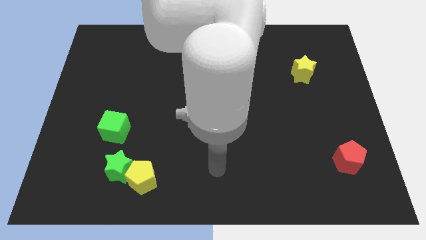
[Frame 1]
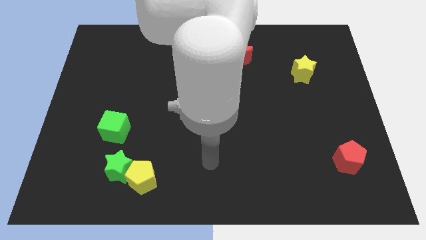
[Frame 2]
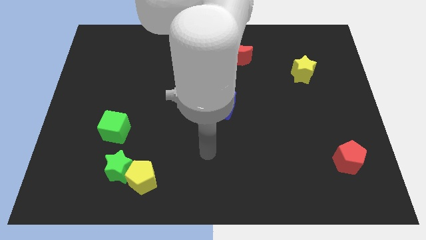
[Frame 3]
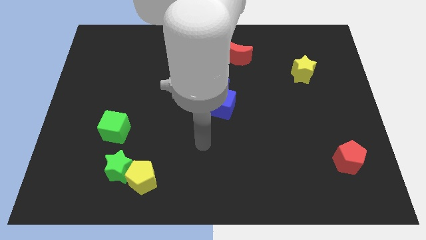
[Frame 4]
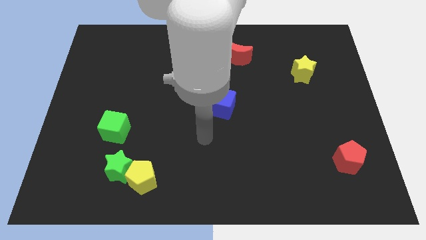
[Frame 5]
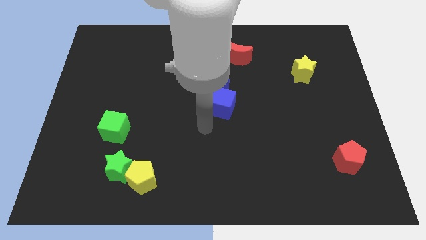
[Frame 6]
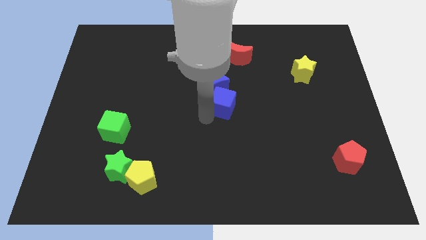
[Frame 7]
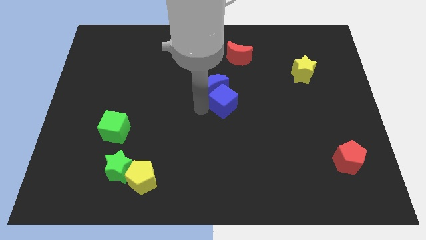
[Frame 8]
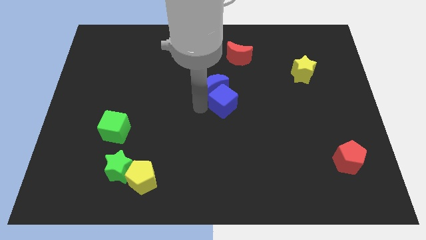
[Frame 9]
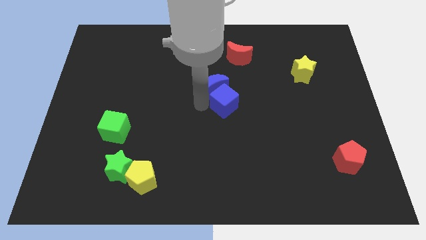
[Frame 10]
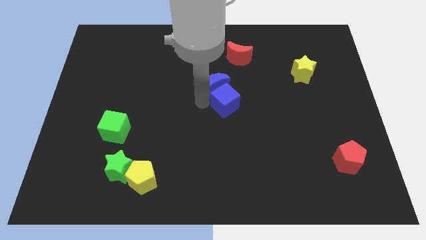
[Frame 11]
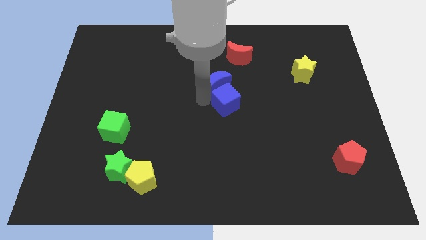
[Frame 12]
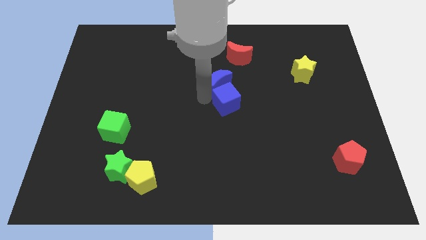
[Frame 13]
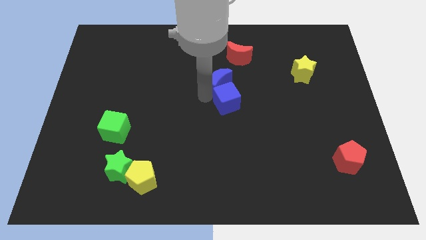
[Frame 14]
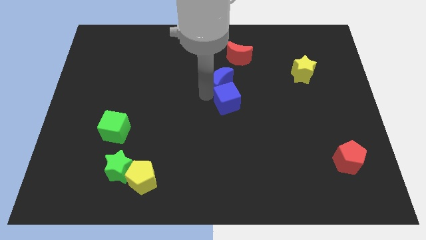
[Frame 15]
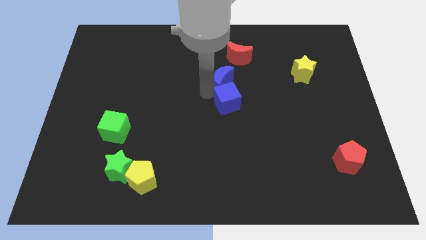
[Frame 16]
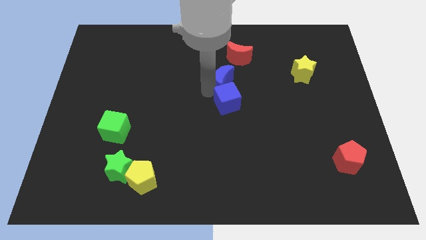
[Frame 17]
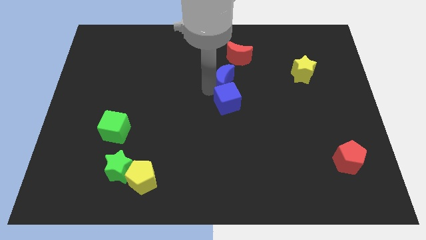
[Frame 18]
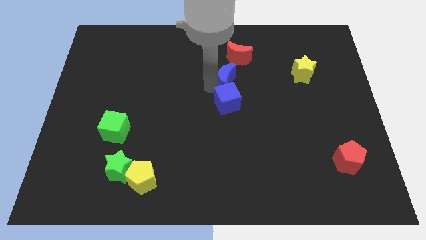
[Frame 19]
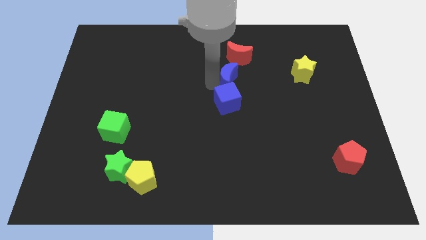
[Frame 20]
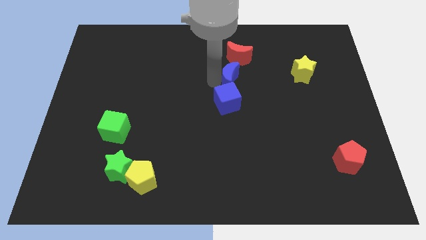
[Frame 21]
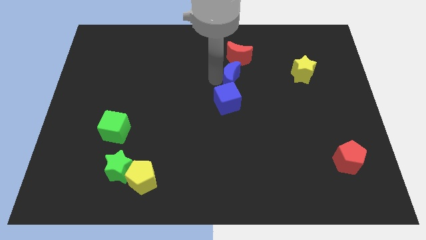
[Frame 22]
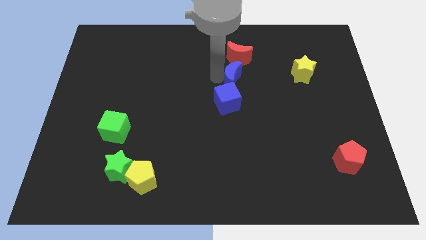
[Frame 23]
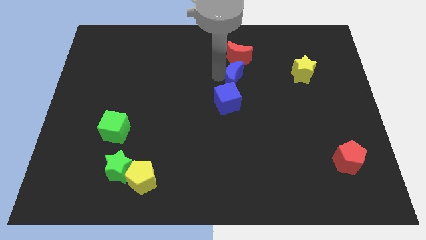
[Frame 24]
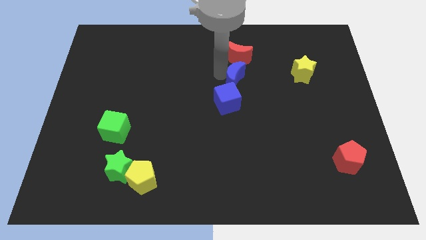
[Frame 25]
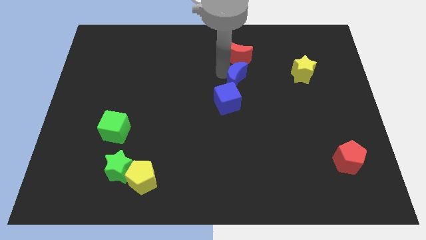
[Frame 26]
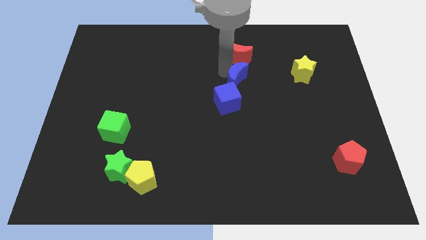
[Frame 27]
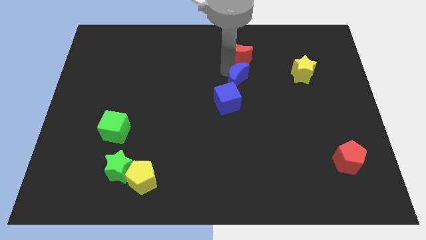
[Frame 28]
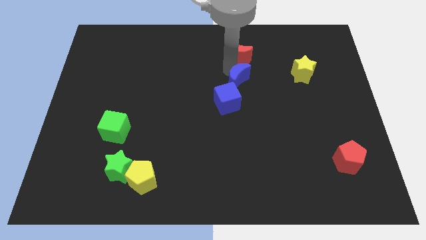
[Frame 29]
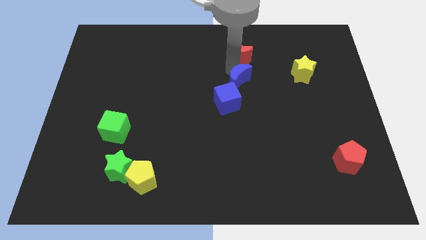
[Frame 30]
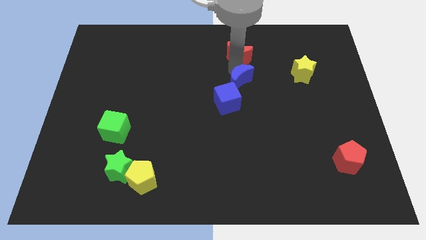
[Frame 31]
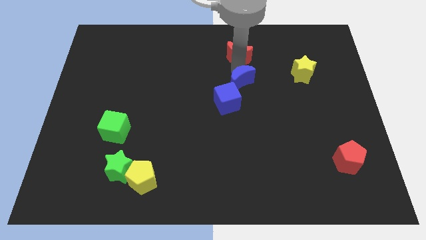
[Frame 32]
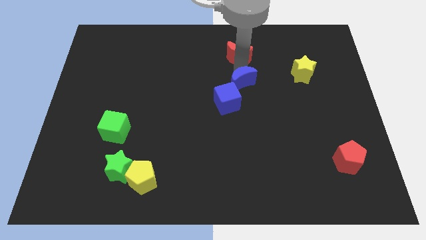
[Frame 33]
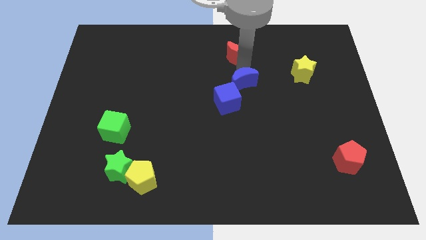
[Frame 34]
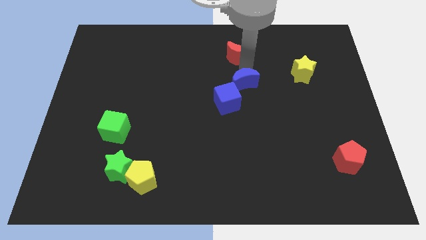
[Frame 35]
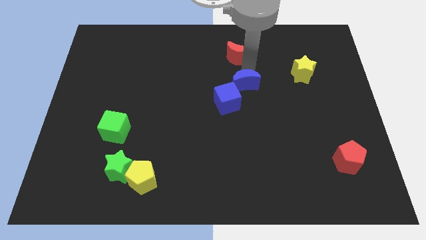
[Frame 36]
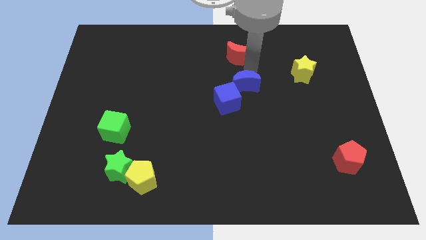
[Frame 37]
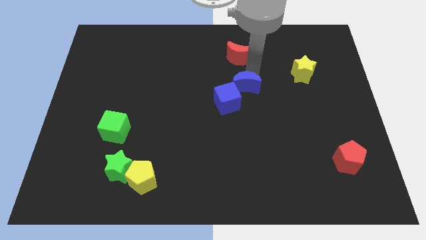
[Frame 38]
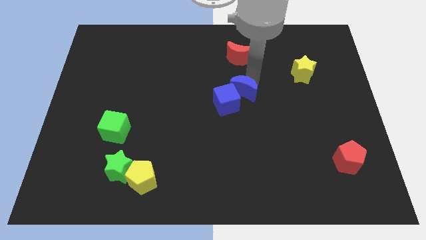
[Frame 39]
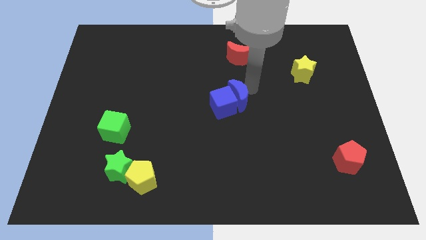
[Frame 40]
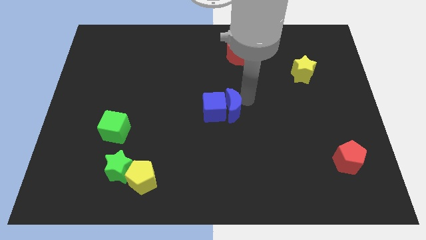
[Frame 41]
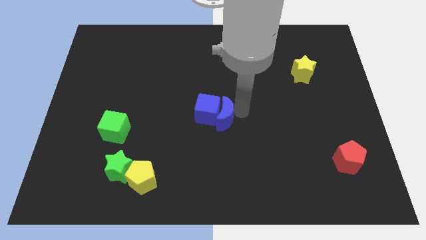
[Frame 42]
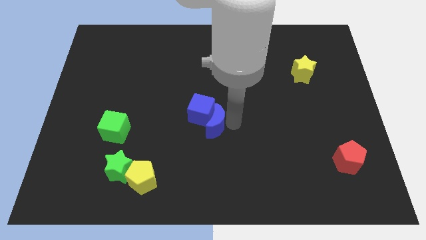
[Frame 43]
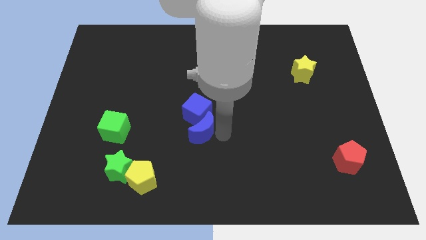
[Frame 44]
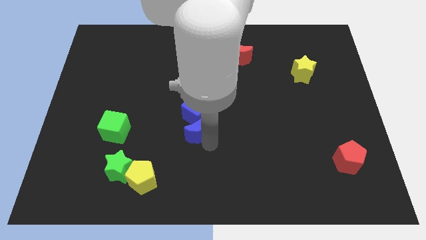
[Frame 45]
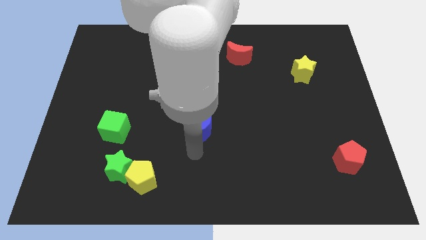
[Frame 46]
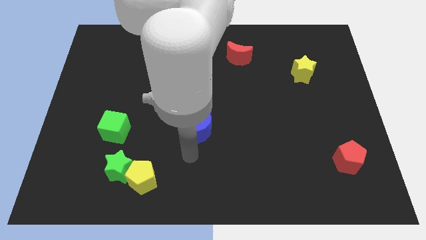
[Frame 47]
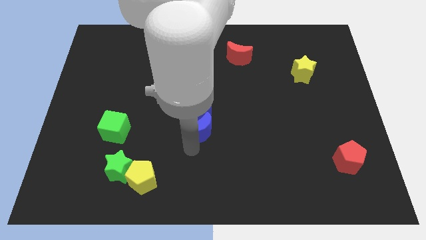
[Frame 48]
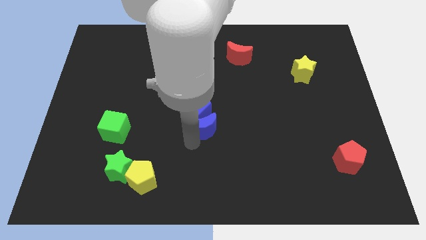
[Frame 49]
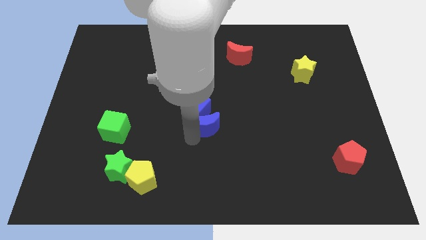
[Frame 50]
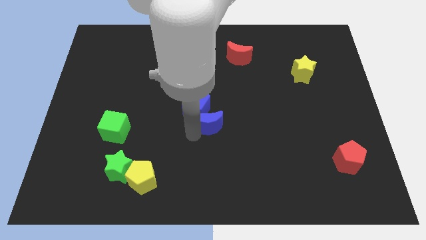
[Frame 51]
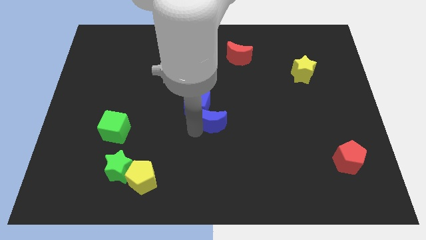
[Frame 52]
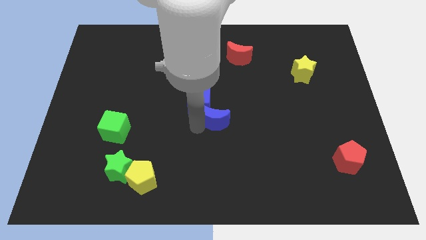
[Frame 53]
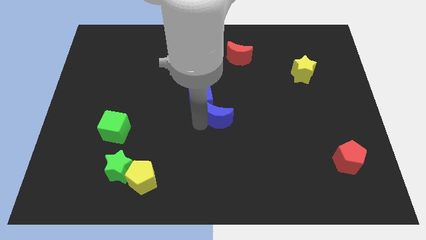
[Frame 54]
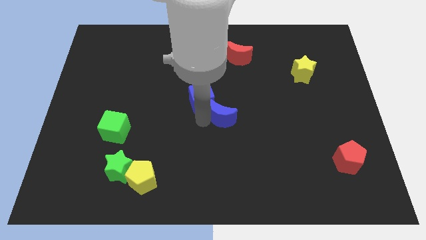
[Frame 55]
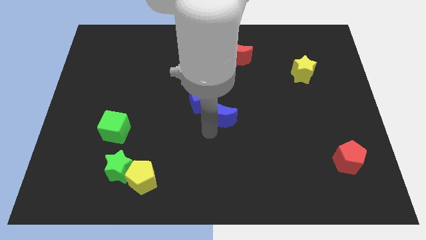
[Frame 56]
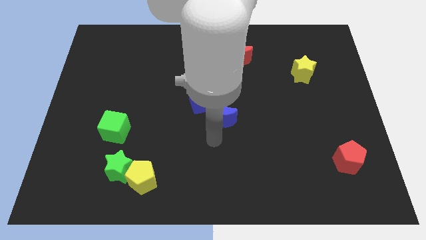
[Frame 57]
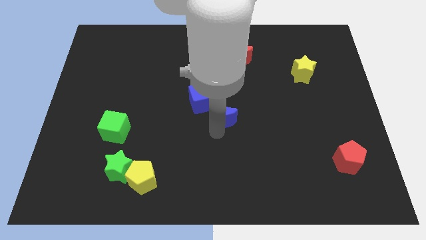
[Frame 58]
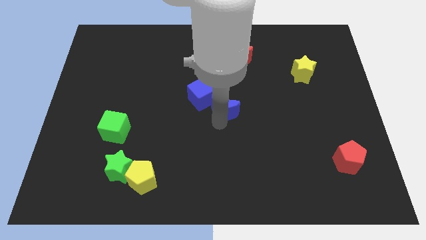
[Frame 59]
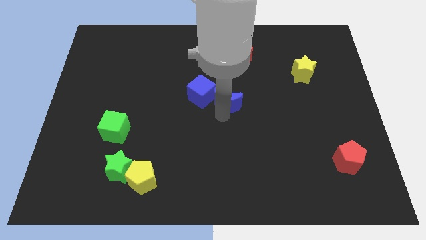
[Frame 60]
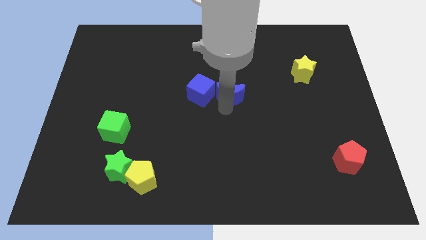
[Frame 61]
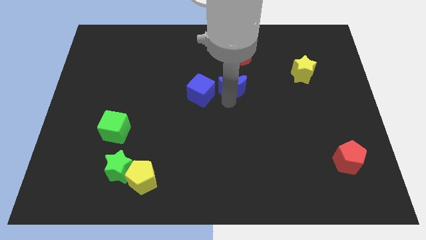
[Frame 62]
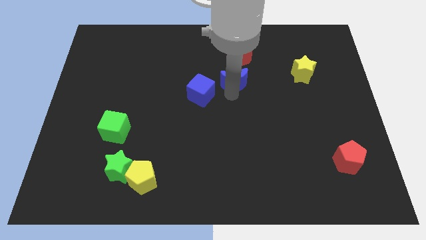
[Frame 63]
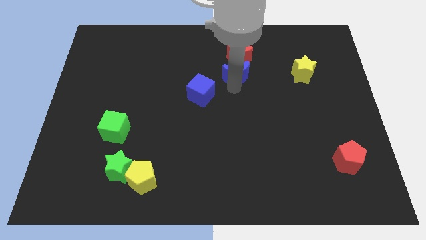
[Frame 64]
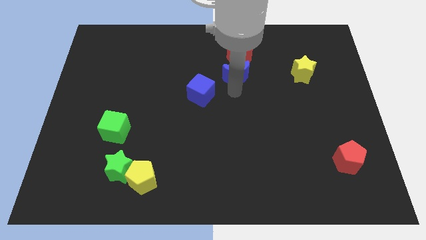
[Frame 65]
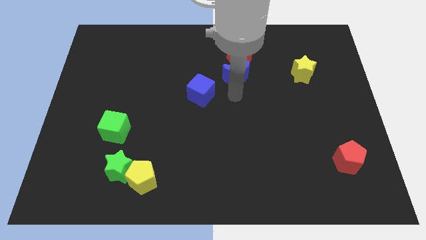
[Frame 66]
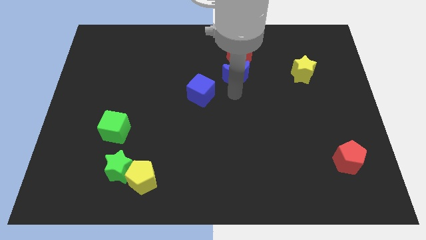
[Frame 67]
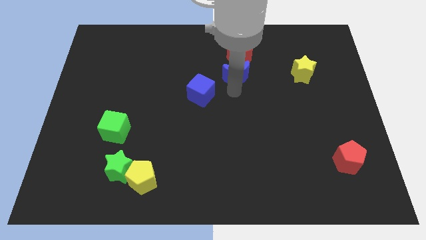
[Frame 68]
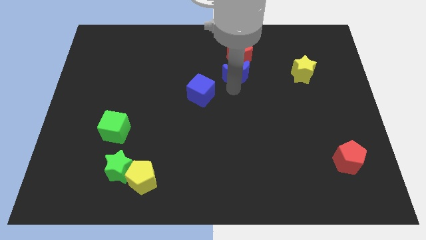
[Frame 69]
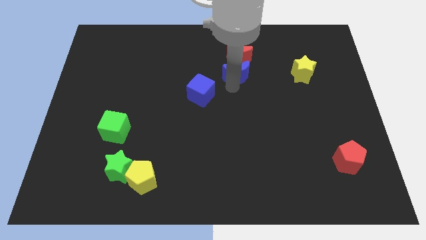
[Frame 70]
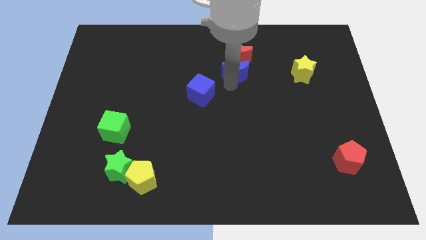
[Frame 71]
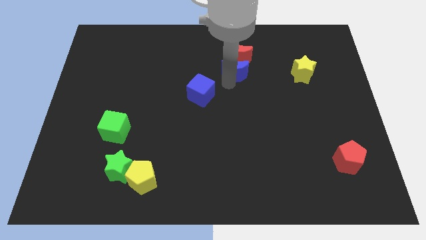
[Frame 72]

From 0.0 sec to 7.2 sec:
move the blue moon next to the red moon

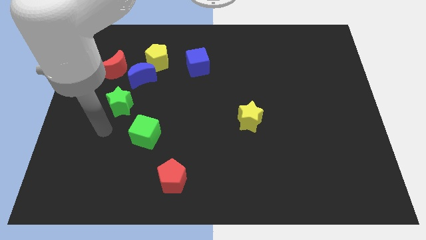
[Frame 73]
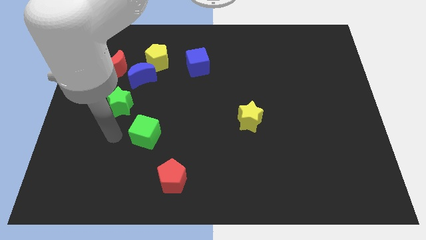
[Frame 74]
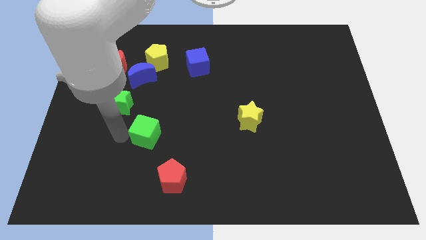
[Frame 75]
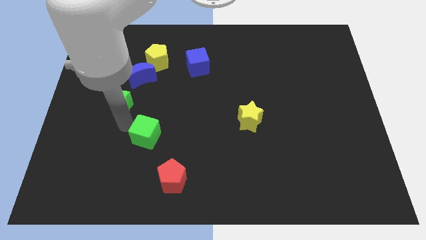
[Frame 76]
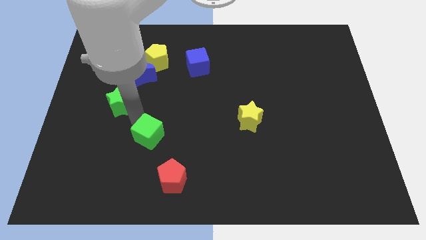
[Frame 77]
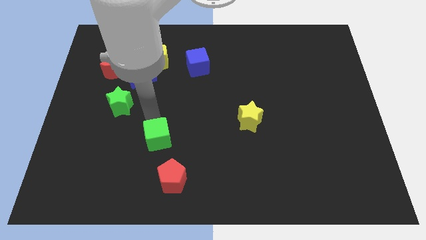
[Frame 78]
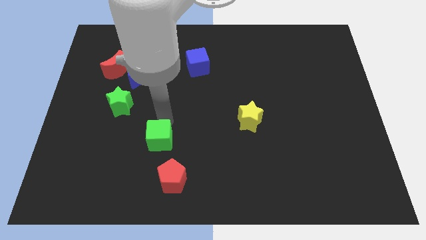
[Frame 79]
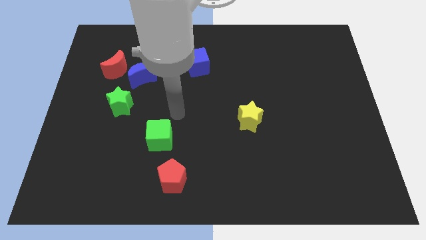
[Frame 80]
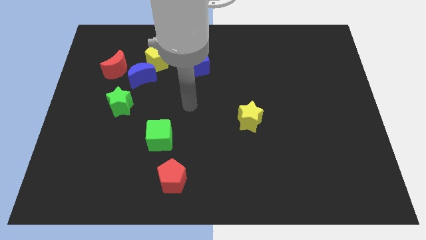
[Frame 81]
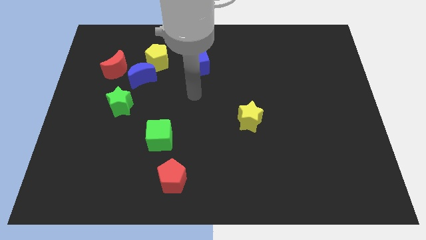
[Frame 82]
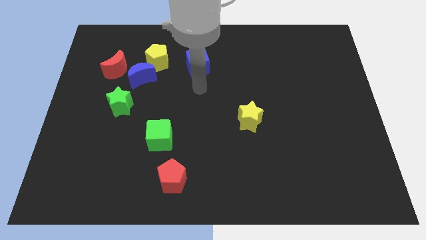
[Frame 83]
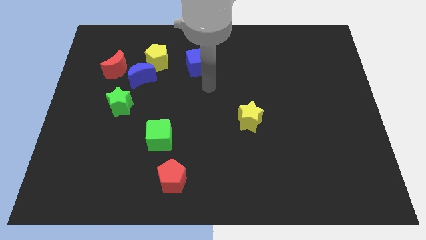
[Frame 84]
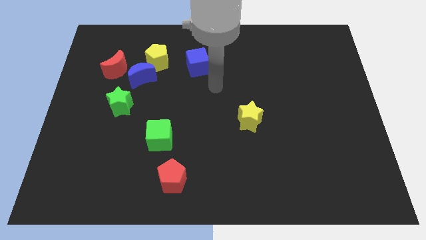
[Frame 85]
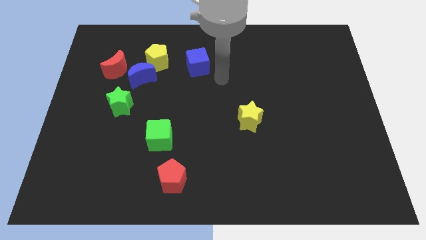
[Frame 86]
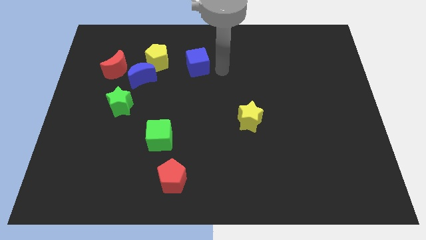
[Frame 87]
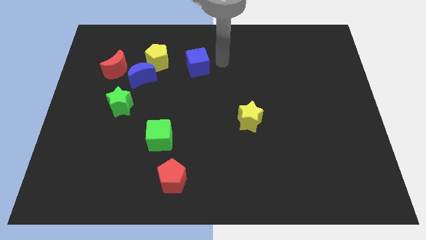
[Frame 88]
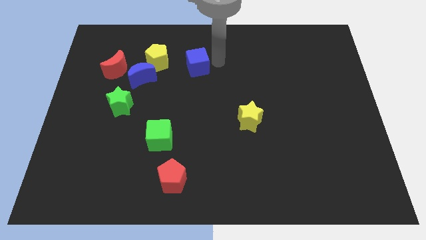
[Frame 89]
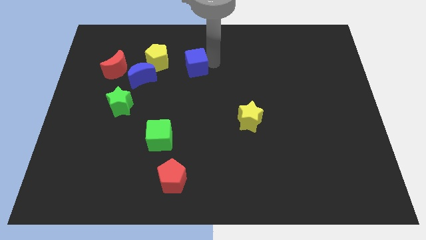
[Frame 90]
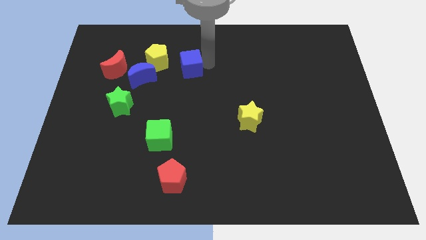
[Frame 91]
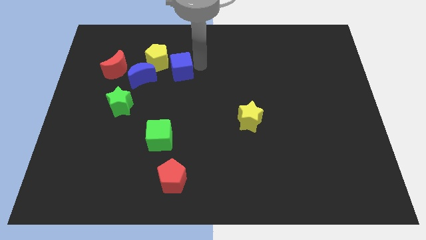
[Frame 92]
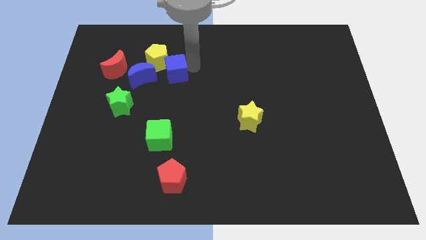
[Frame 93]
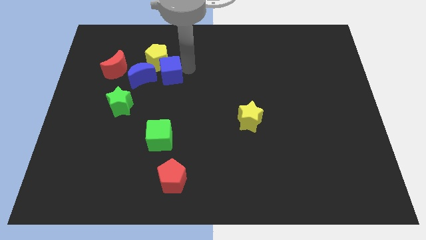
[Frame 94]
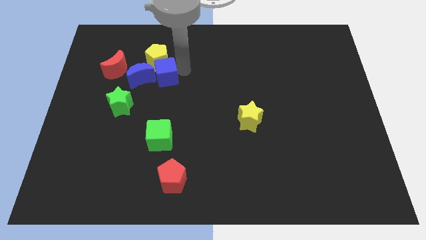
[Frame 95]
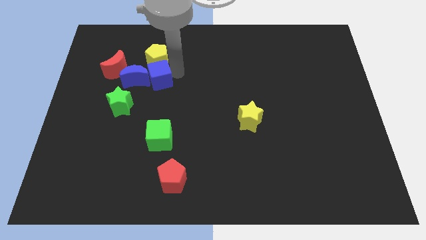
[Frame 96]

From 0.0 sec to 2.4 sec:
slide the blue cube to the blue moon
